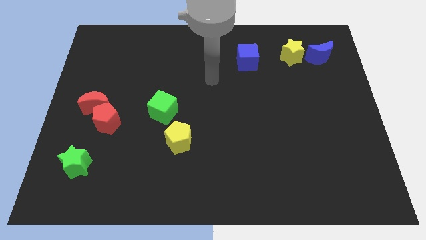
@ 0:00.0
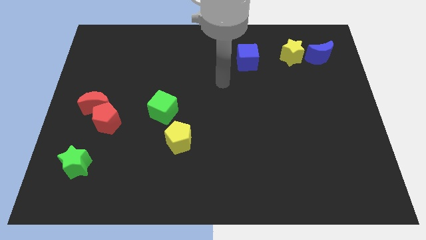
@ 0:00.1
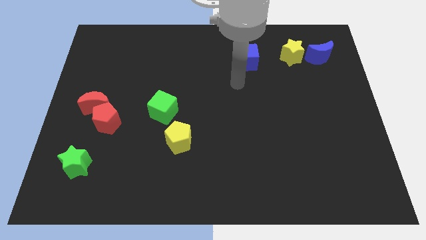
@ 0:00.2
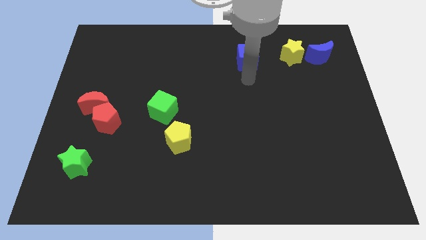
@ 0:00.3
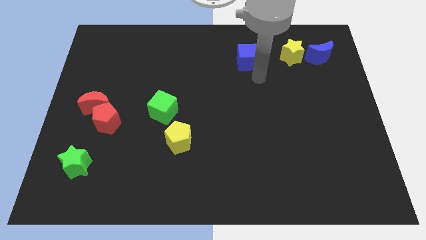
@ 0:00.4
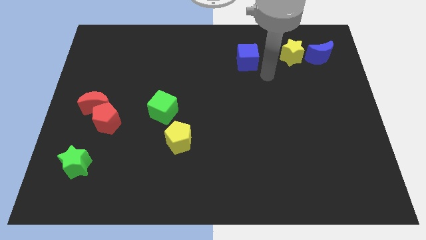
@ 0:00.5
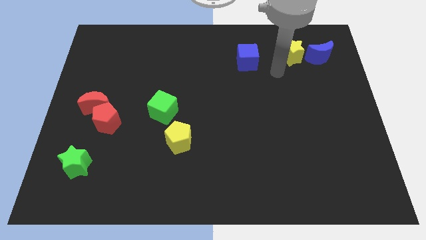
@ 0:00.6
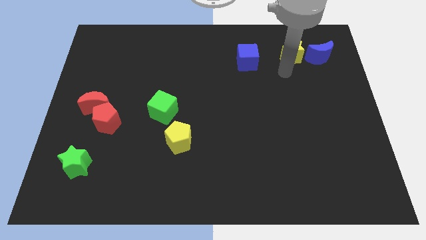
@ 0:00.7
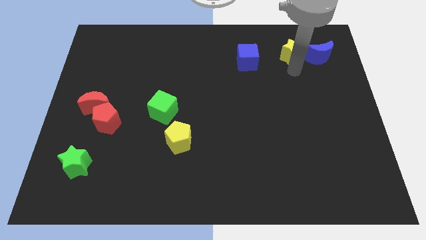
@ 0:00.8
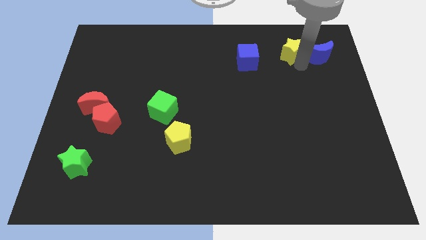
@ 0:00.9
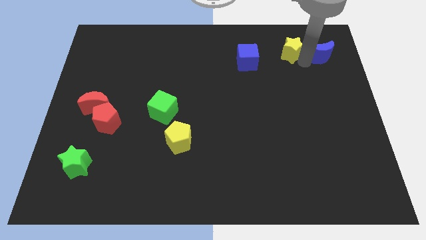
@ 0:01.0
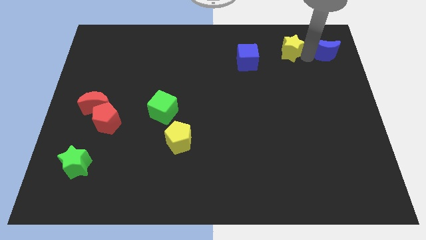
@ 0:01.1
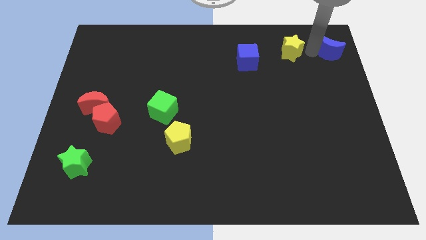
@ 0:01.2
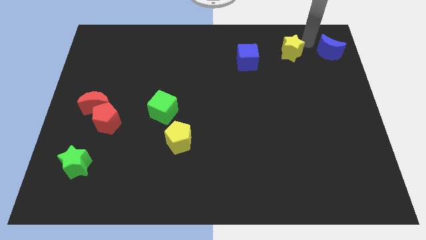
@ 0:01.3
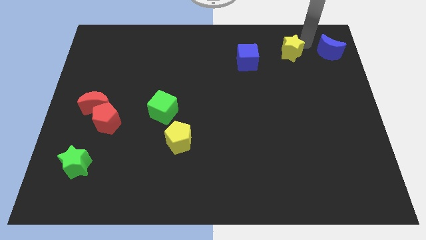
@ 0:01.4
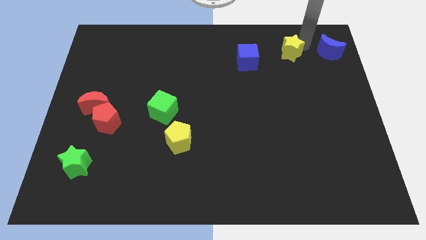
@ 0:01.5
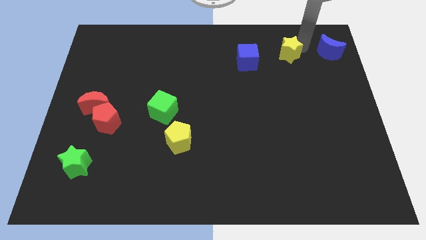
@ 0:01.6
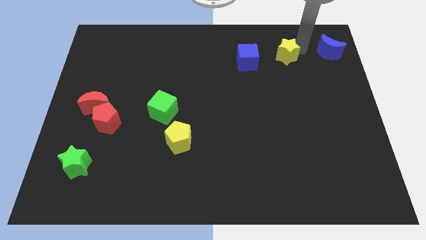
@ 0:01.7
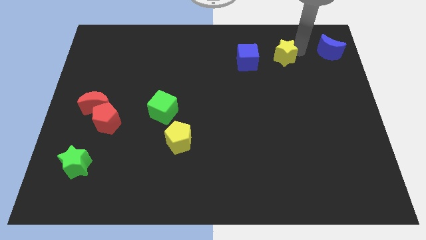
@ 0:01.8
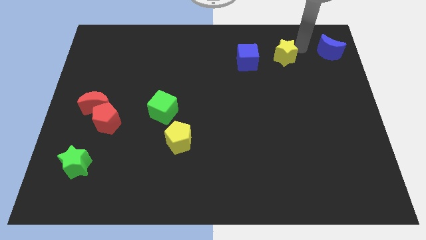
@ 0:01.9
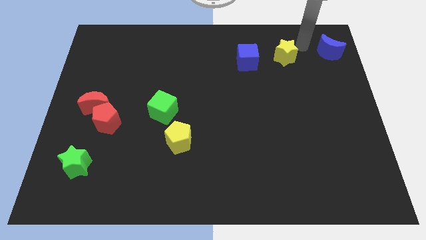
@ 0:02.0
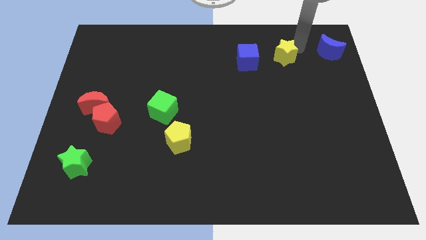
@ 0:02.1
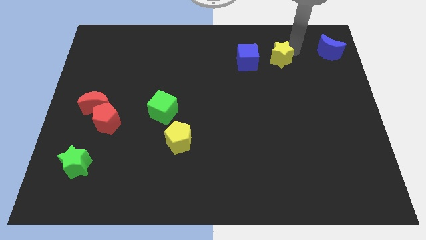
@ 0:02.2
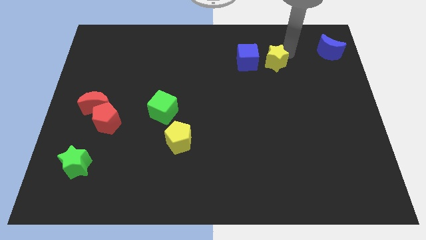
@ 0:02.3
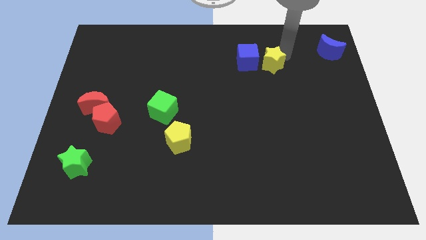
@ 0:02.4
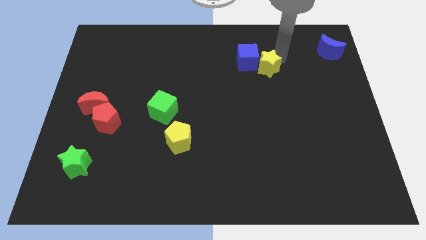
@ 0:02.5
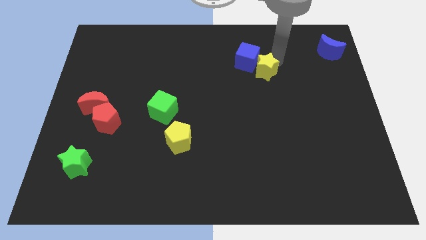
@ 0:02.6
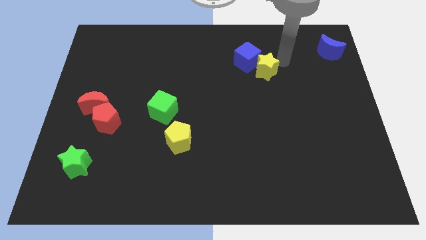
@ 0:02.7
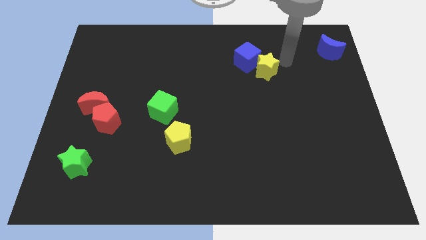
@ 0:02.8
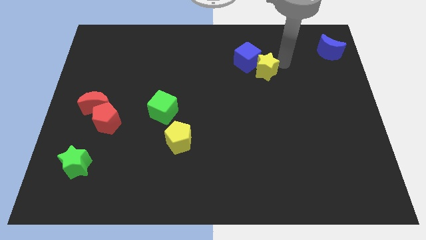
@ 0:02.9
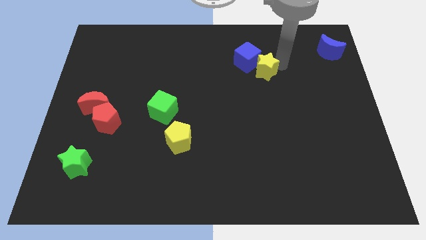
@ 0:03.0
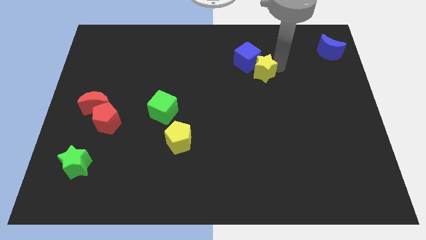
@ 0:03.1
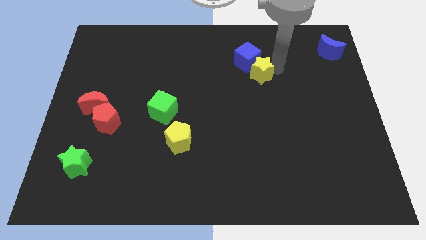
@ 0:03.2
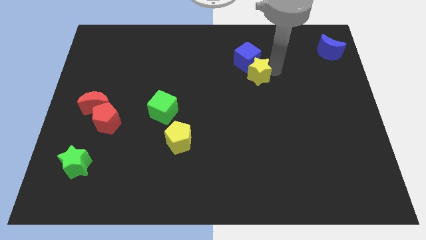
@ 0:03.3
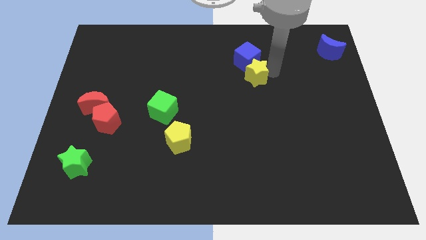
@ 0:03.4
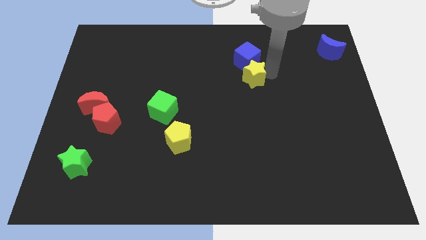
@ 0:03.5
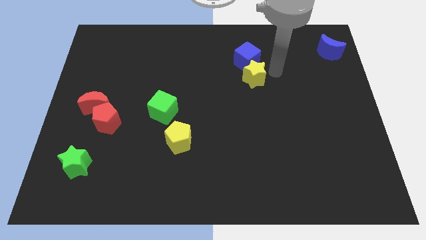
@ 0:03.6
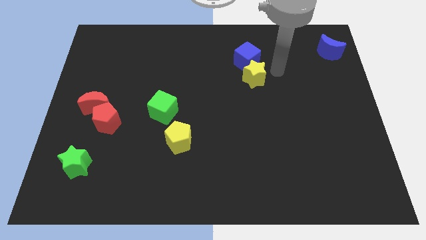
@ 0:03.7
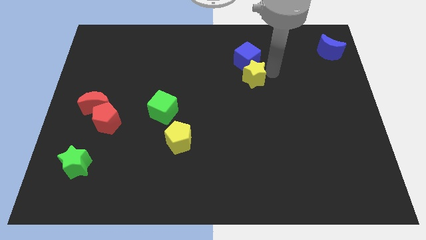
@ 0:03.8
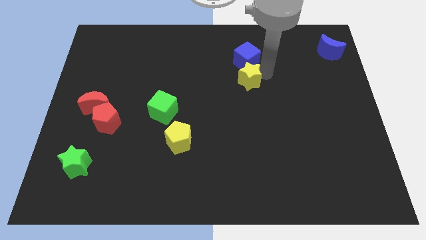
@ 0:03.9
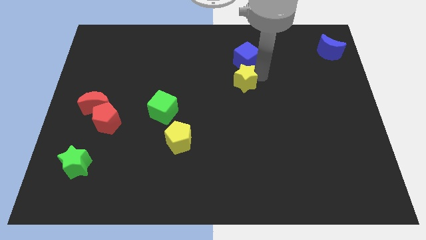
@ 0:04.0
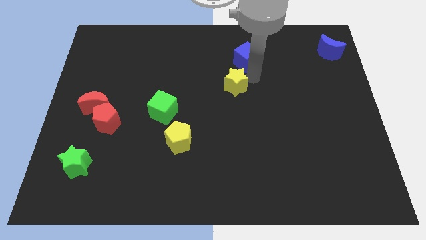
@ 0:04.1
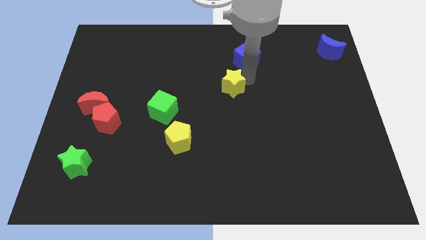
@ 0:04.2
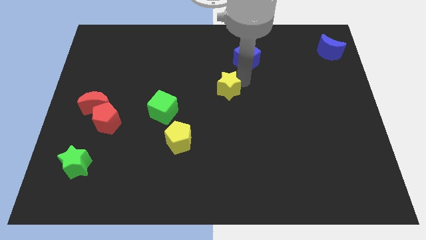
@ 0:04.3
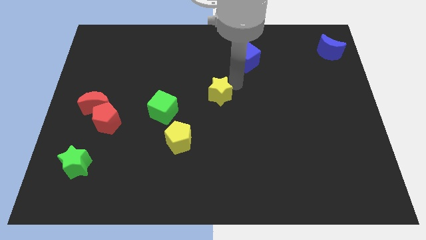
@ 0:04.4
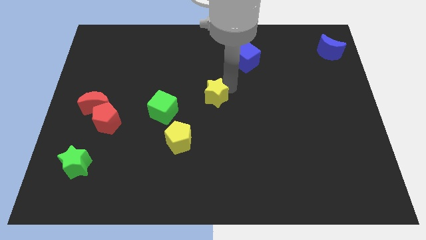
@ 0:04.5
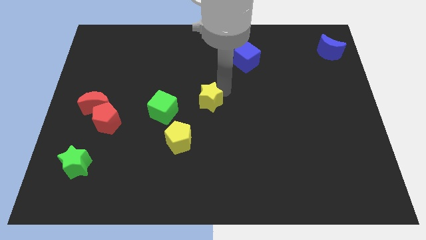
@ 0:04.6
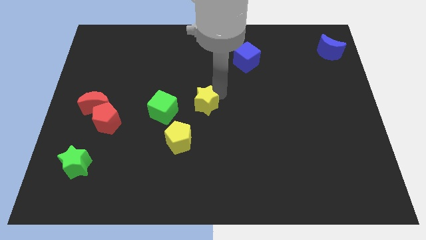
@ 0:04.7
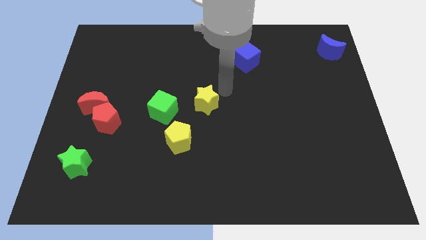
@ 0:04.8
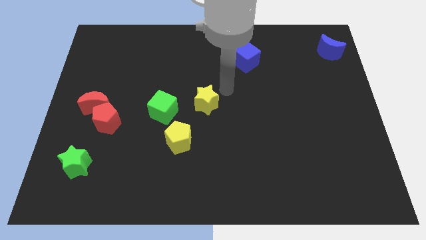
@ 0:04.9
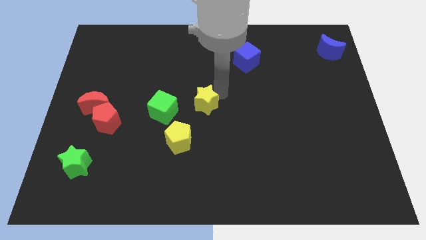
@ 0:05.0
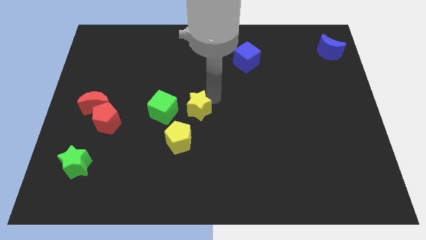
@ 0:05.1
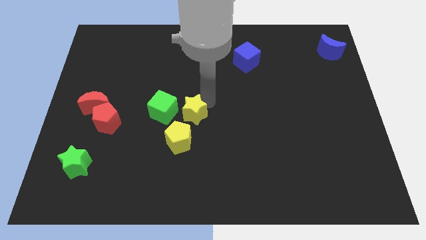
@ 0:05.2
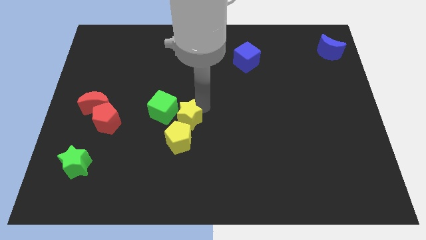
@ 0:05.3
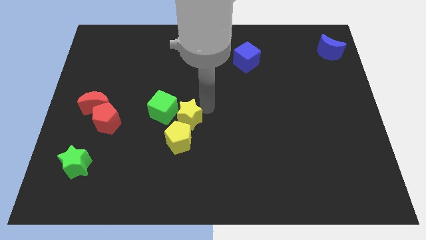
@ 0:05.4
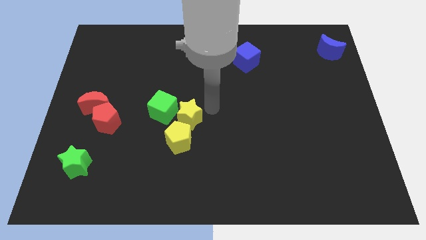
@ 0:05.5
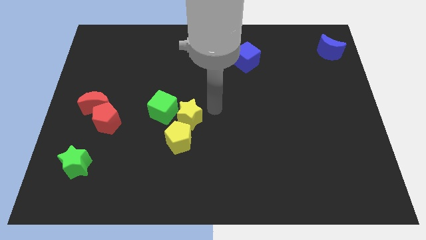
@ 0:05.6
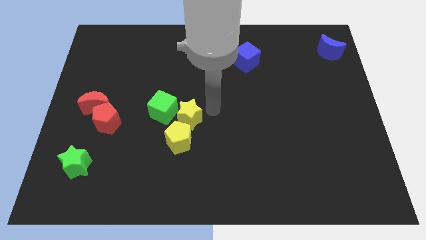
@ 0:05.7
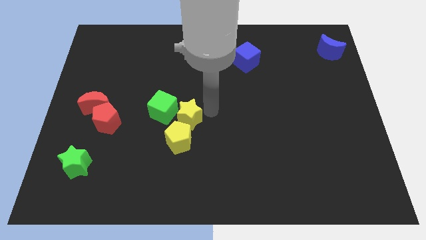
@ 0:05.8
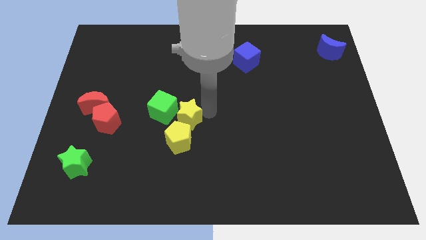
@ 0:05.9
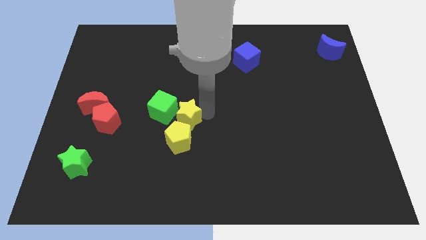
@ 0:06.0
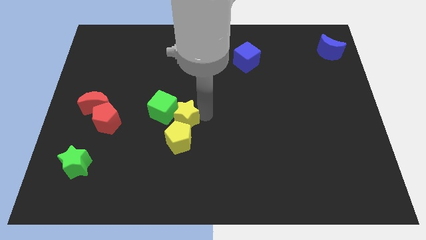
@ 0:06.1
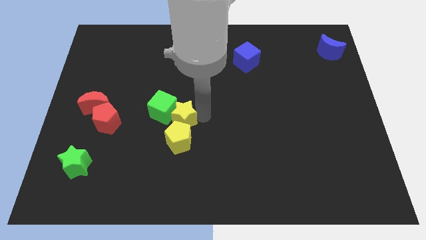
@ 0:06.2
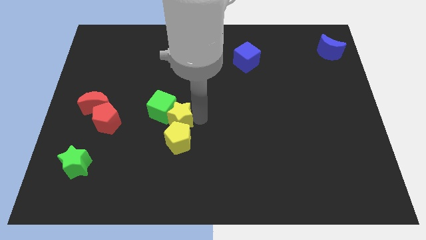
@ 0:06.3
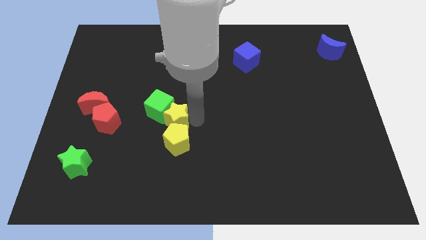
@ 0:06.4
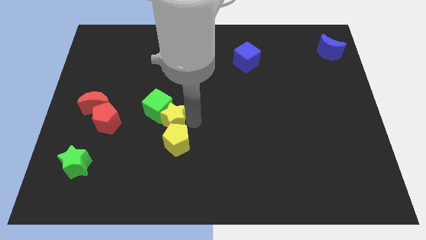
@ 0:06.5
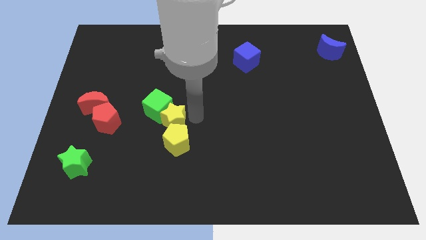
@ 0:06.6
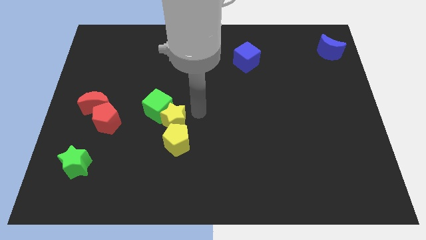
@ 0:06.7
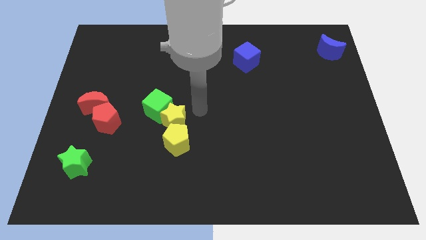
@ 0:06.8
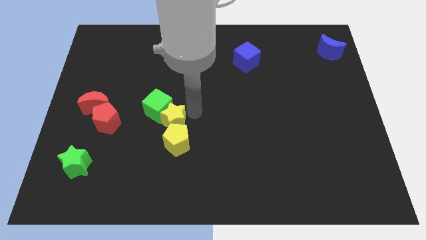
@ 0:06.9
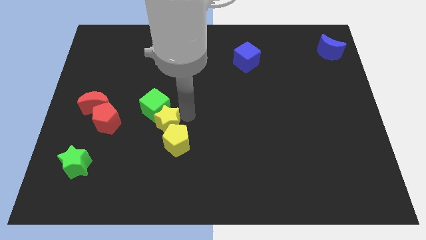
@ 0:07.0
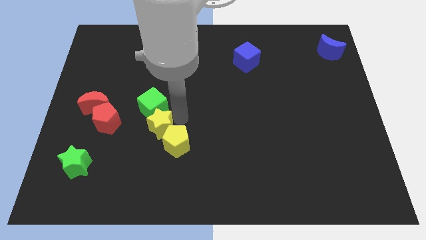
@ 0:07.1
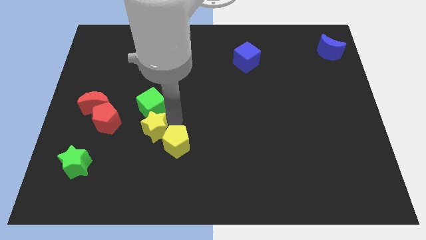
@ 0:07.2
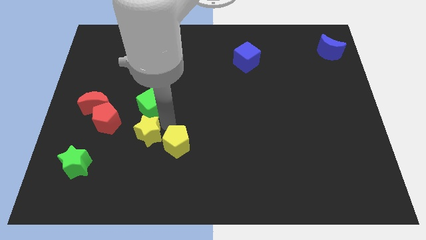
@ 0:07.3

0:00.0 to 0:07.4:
move the yellow star diagonally down and to the right of the red pentagon

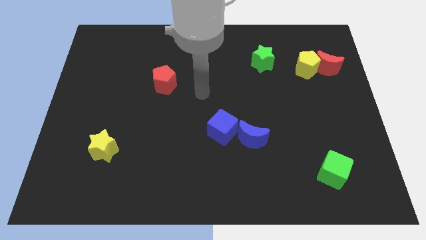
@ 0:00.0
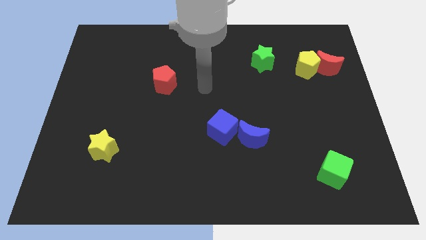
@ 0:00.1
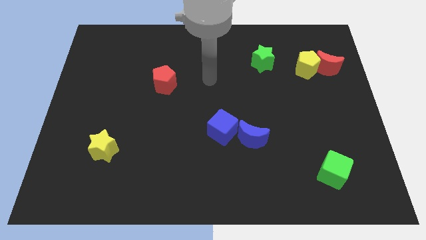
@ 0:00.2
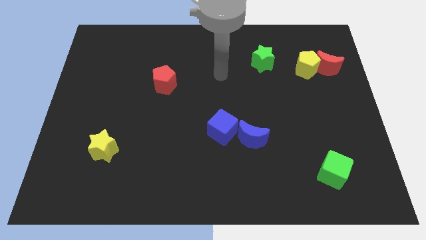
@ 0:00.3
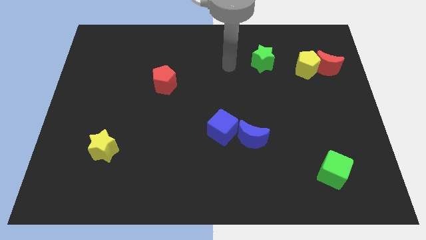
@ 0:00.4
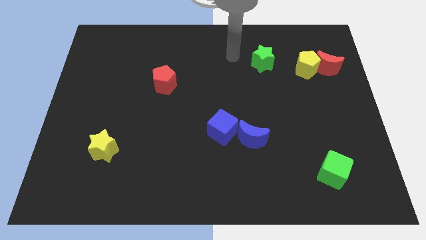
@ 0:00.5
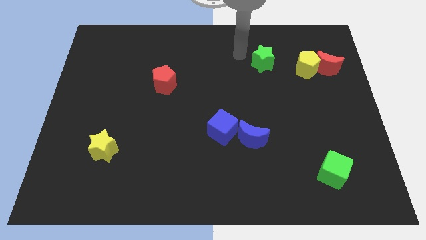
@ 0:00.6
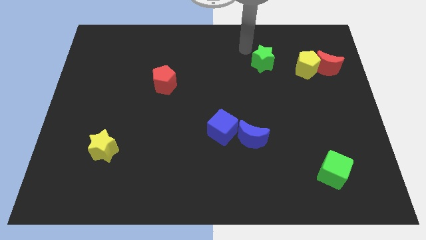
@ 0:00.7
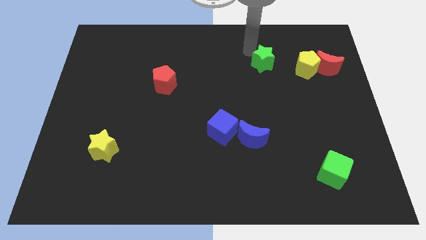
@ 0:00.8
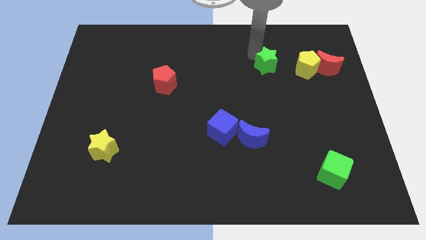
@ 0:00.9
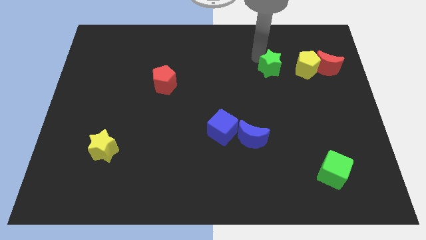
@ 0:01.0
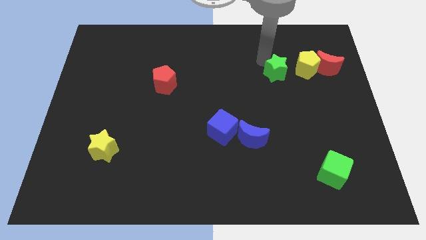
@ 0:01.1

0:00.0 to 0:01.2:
put the green star diagonally down and to the left of the yellow pentagon
